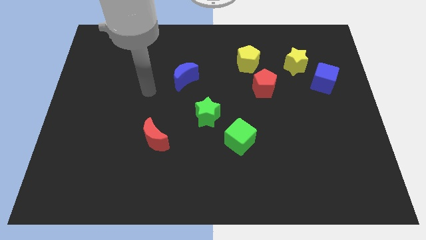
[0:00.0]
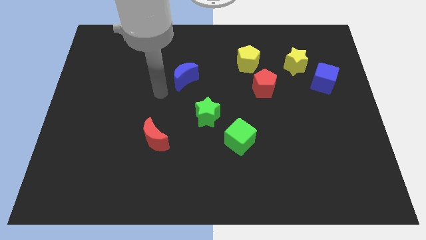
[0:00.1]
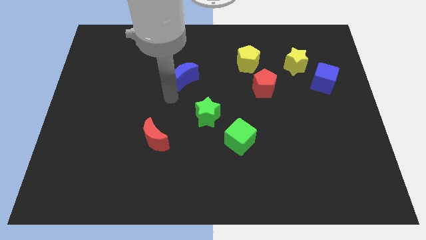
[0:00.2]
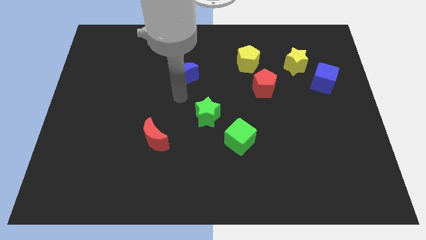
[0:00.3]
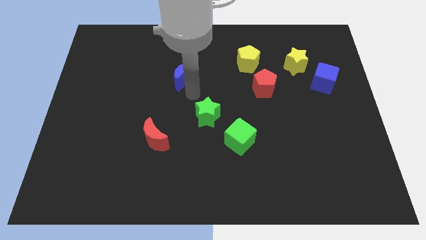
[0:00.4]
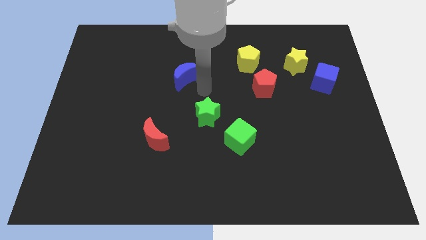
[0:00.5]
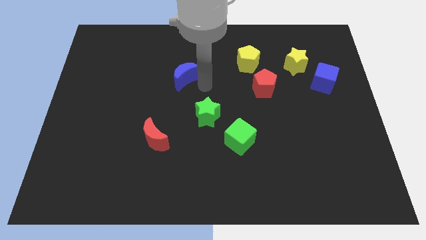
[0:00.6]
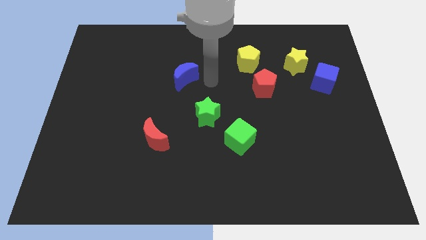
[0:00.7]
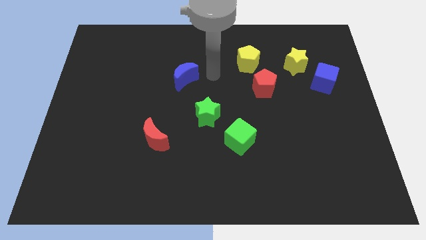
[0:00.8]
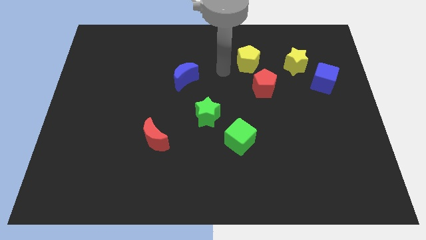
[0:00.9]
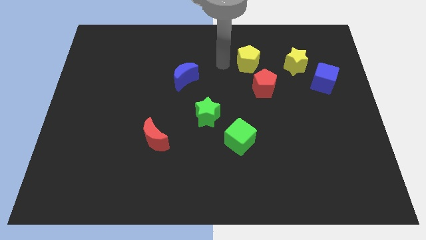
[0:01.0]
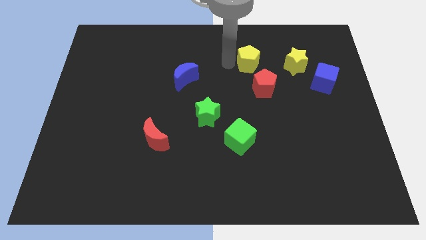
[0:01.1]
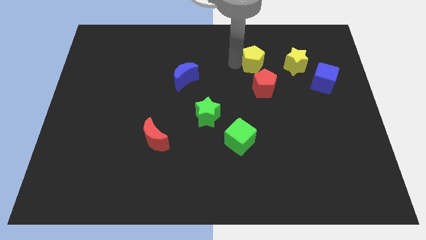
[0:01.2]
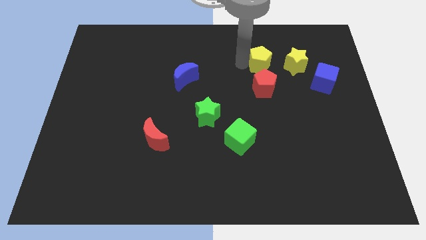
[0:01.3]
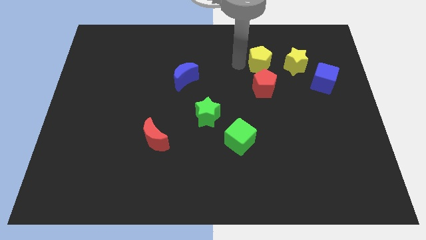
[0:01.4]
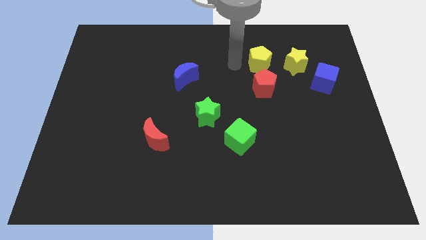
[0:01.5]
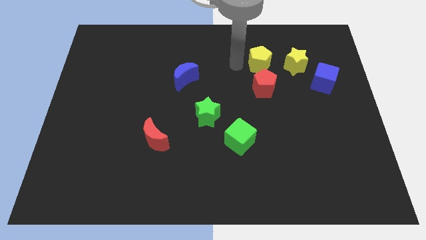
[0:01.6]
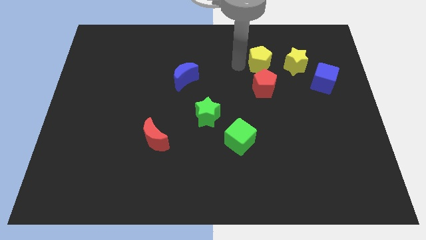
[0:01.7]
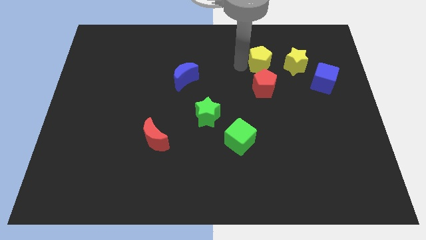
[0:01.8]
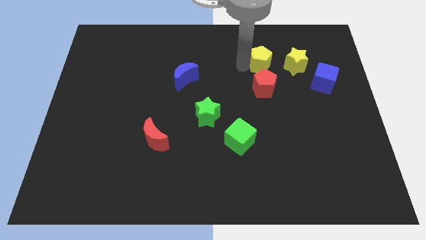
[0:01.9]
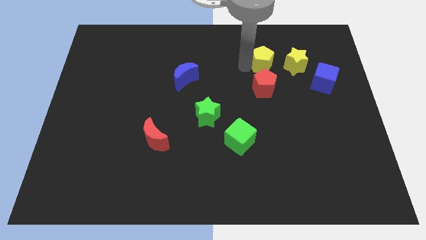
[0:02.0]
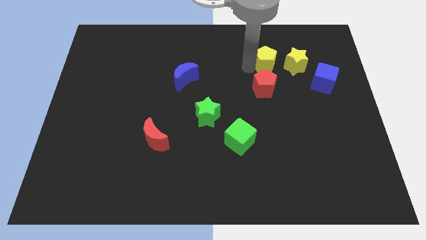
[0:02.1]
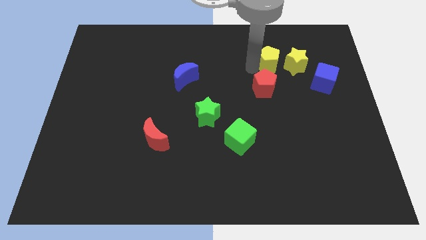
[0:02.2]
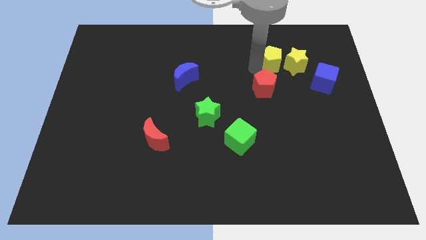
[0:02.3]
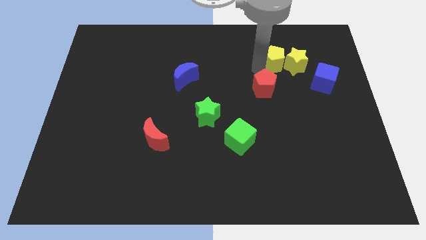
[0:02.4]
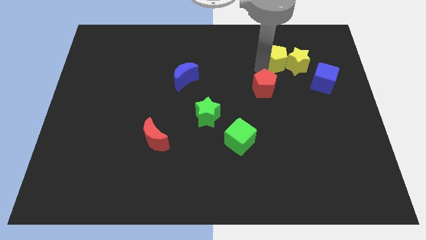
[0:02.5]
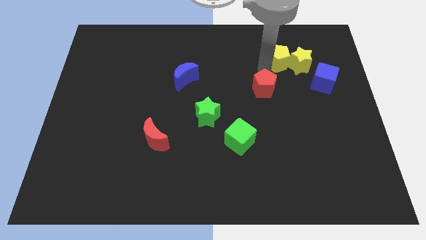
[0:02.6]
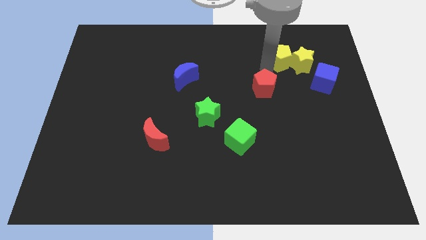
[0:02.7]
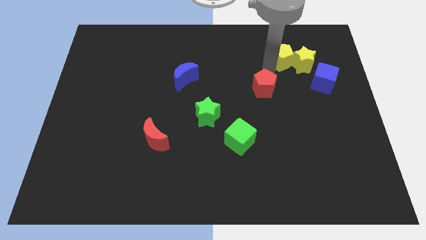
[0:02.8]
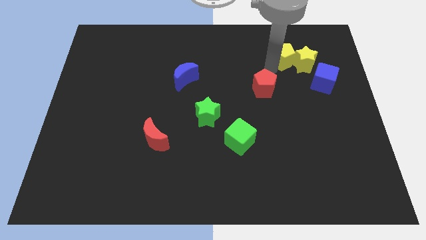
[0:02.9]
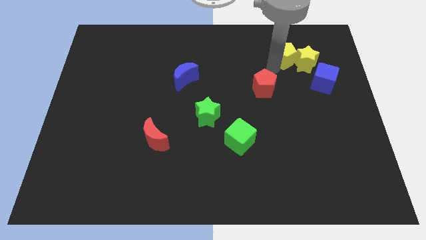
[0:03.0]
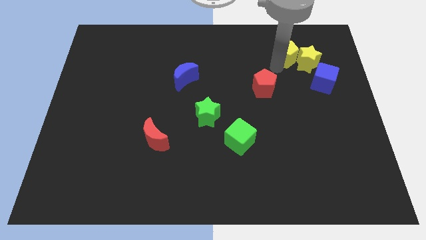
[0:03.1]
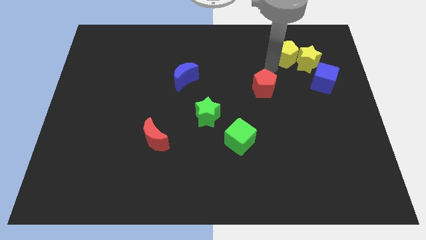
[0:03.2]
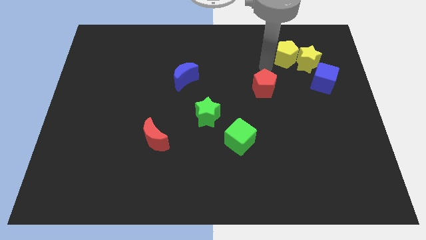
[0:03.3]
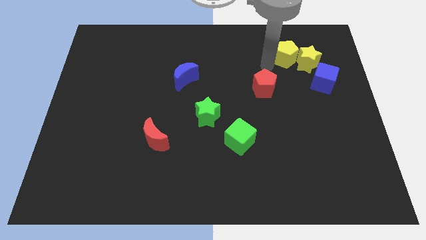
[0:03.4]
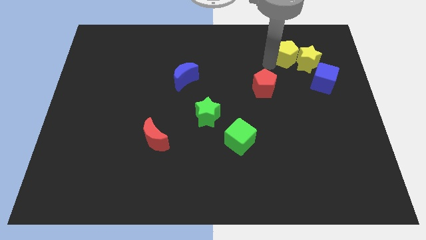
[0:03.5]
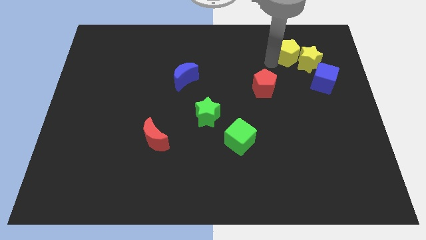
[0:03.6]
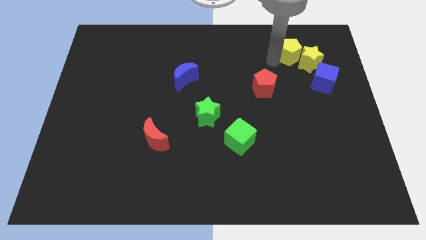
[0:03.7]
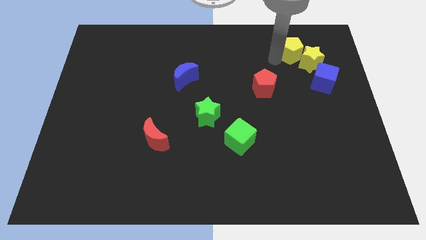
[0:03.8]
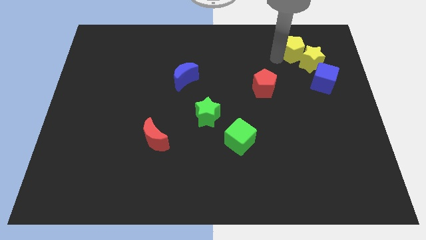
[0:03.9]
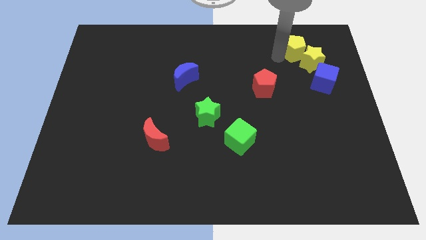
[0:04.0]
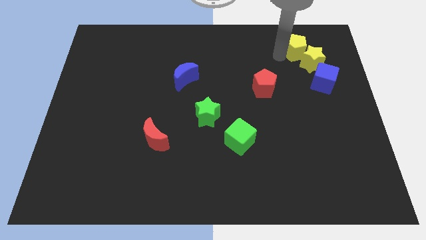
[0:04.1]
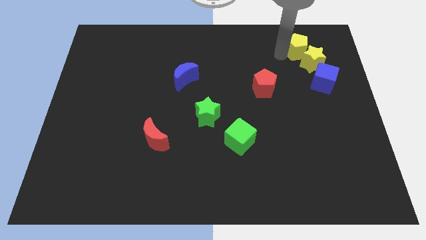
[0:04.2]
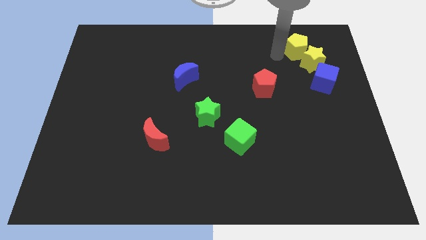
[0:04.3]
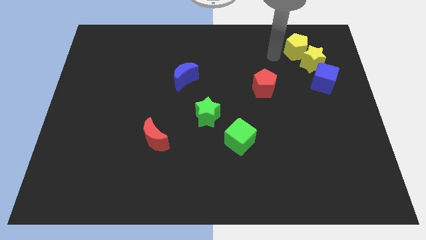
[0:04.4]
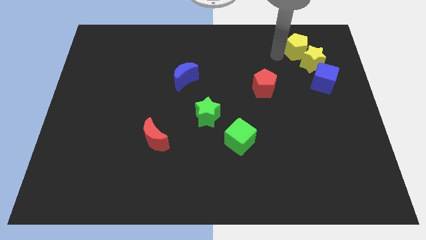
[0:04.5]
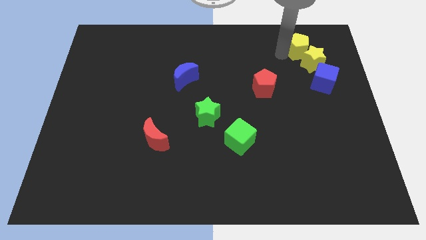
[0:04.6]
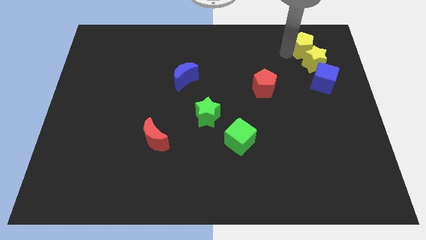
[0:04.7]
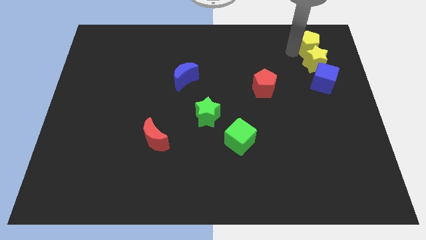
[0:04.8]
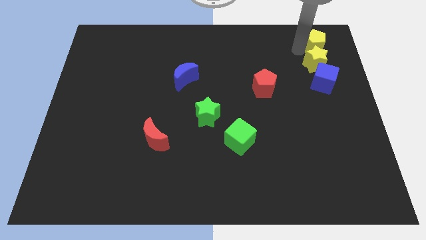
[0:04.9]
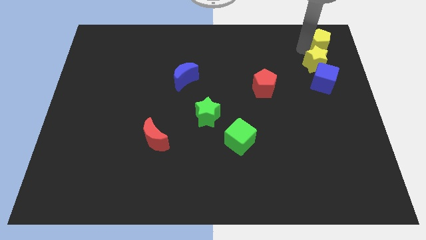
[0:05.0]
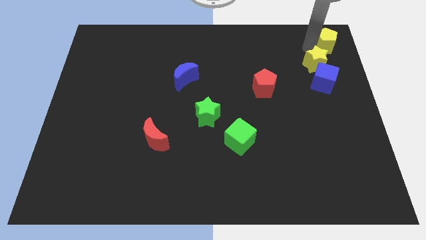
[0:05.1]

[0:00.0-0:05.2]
push the yellow pentagon to the upper right corner

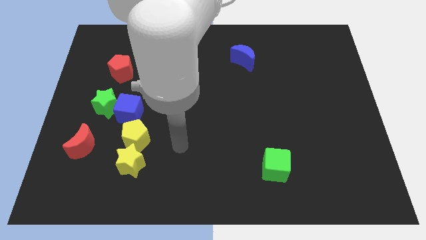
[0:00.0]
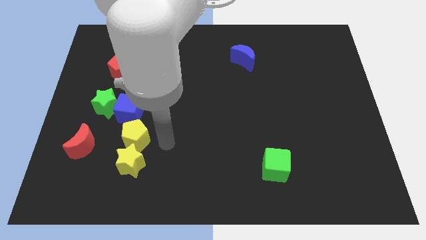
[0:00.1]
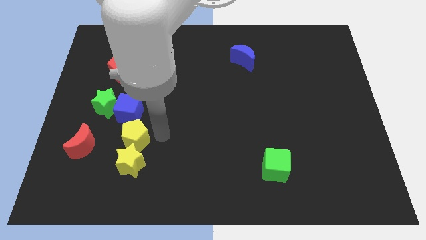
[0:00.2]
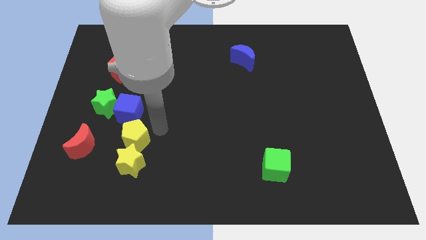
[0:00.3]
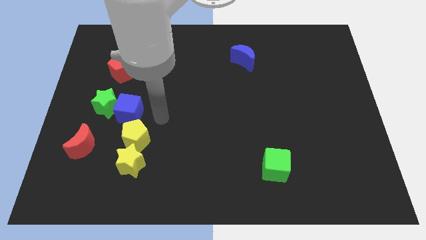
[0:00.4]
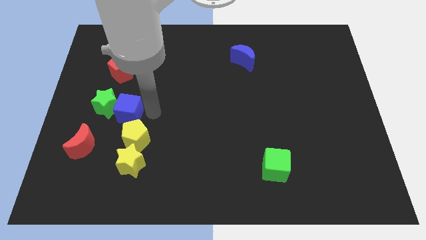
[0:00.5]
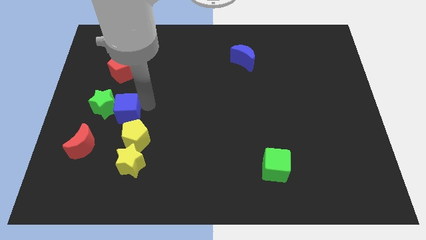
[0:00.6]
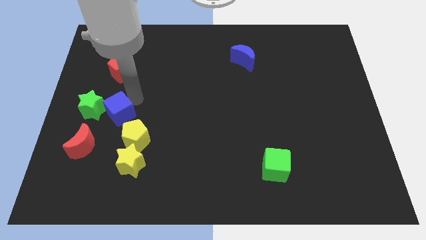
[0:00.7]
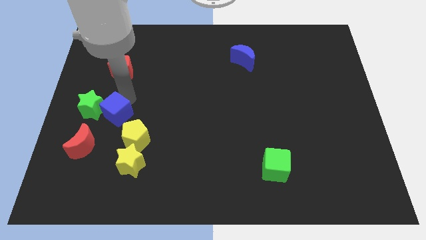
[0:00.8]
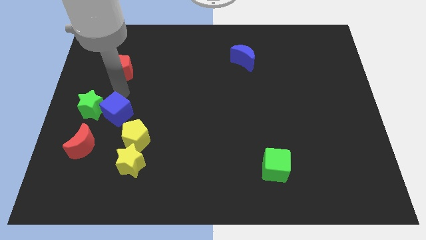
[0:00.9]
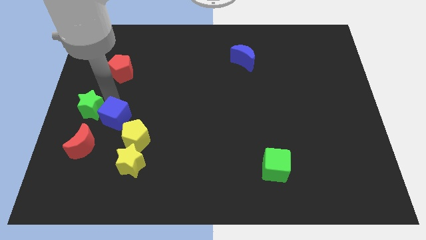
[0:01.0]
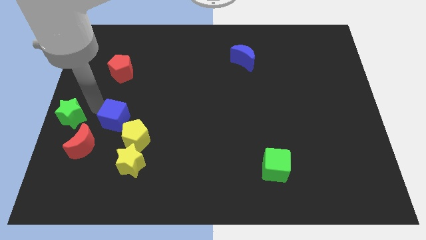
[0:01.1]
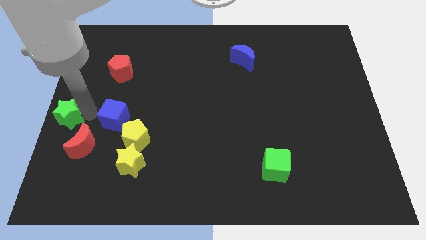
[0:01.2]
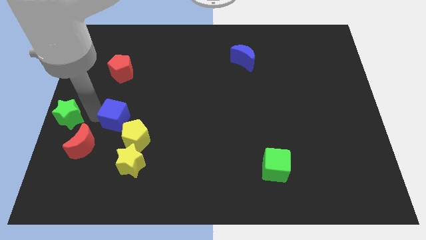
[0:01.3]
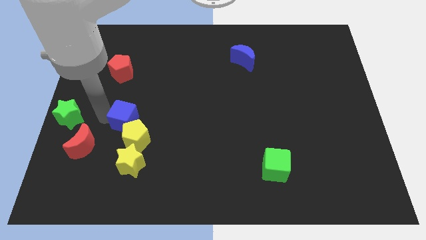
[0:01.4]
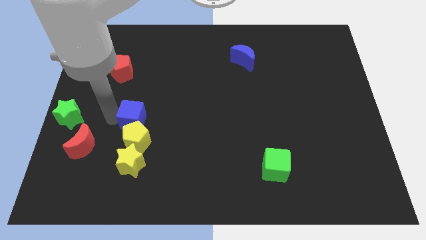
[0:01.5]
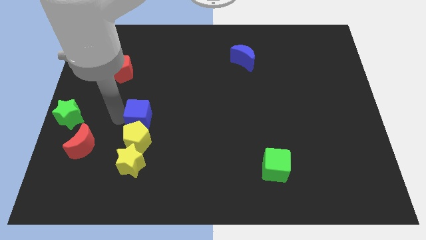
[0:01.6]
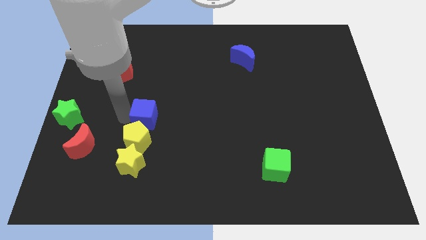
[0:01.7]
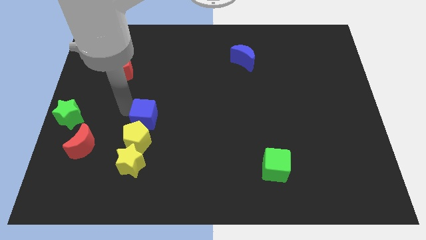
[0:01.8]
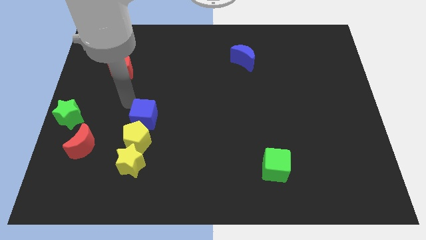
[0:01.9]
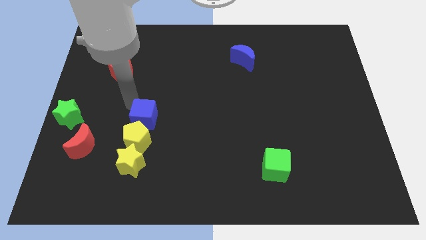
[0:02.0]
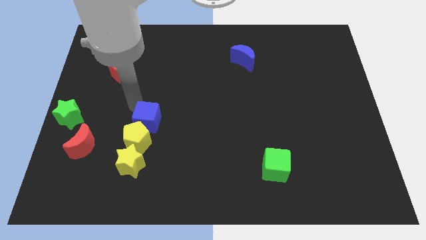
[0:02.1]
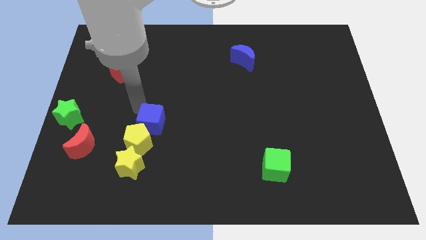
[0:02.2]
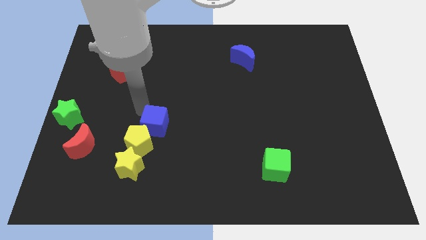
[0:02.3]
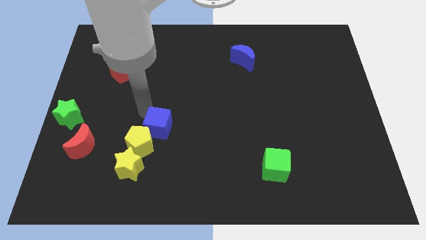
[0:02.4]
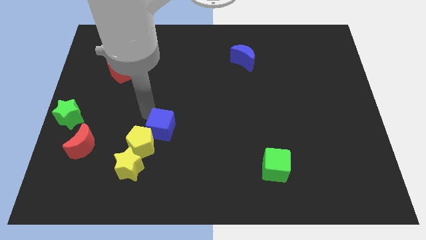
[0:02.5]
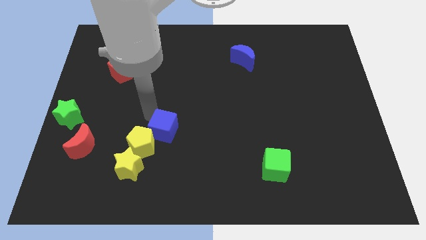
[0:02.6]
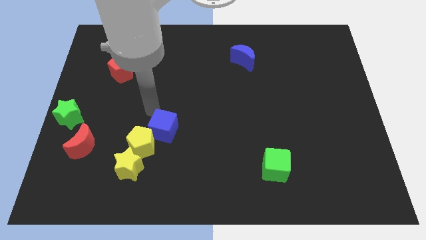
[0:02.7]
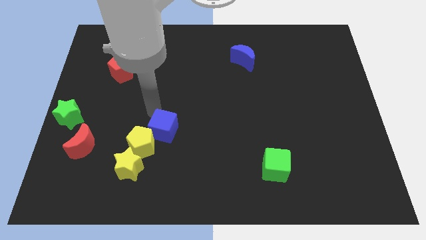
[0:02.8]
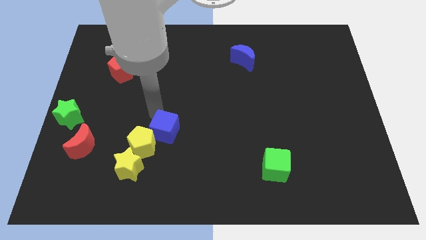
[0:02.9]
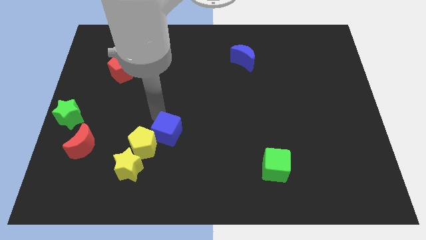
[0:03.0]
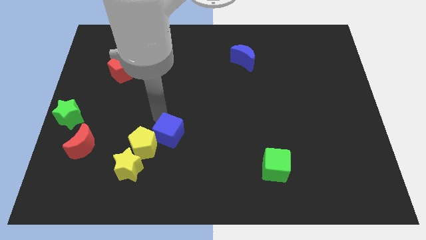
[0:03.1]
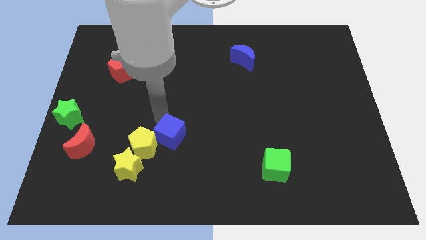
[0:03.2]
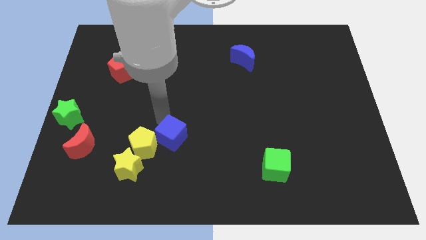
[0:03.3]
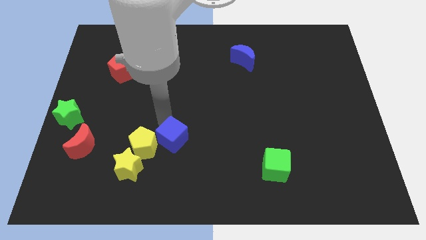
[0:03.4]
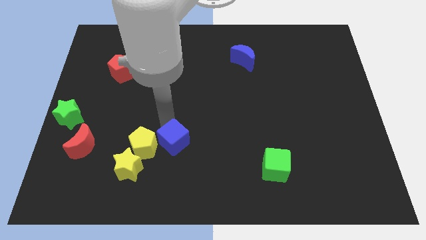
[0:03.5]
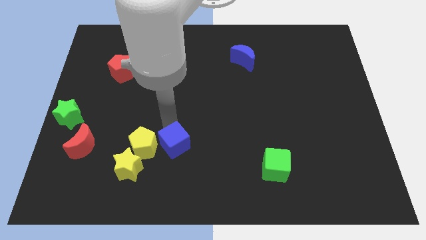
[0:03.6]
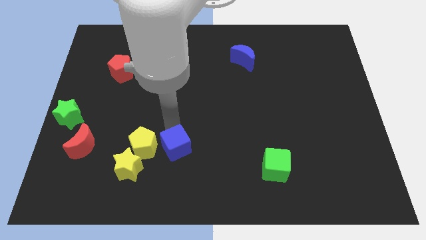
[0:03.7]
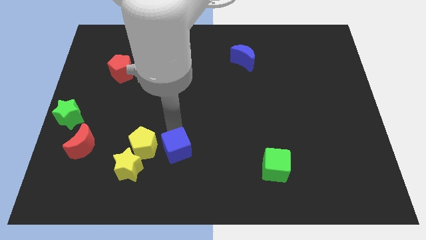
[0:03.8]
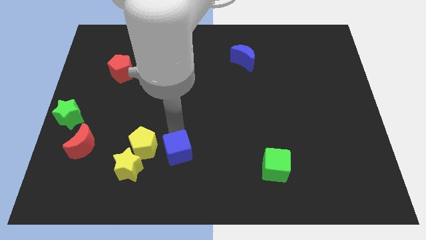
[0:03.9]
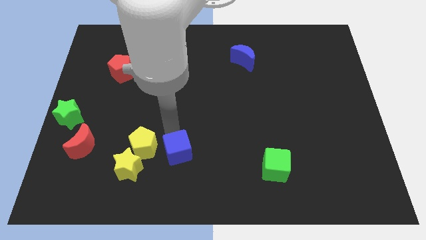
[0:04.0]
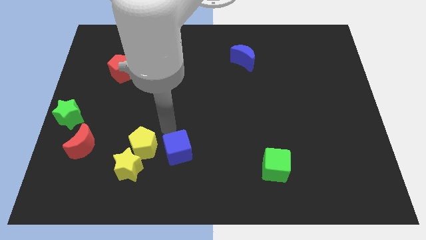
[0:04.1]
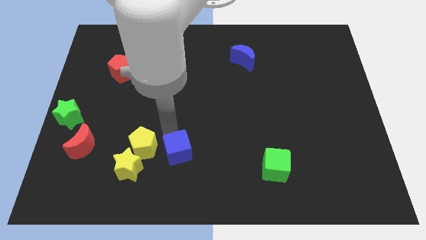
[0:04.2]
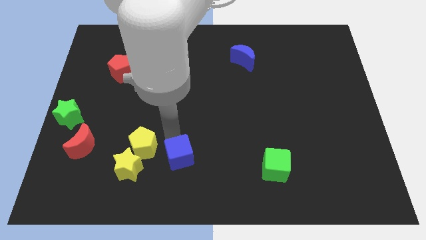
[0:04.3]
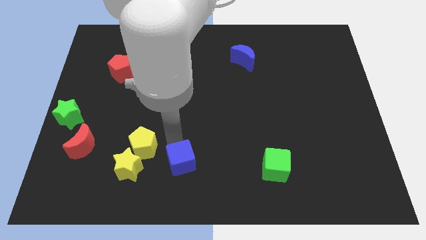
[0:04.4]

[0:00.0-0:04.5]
put the blue cube to the bottom
